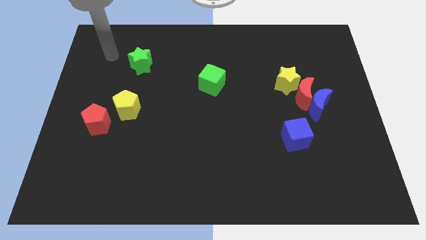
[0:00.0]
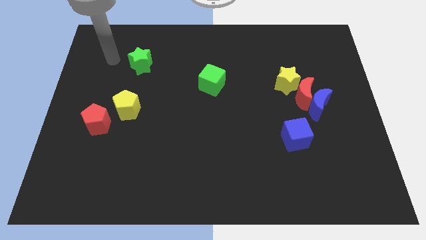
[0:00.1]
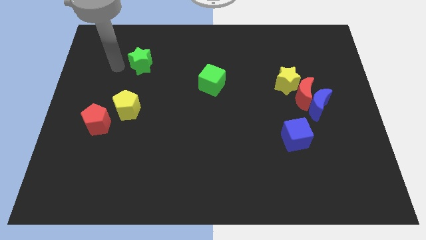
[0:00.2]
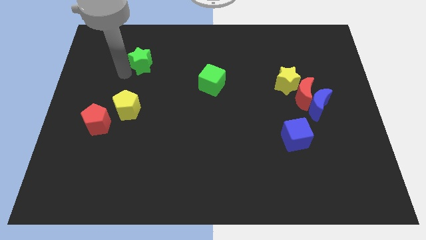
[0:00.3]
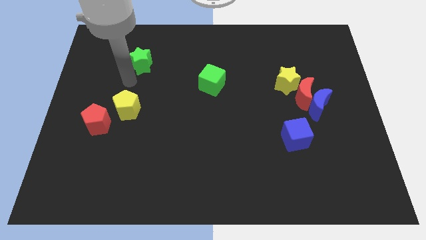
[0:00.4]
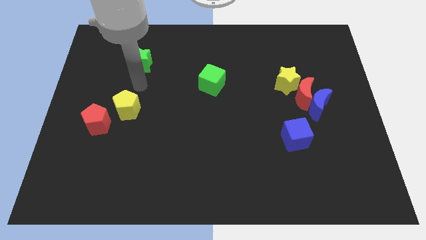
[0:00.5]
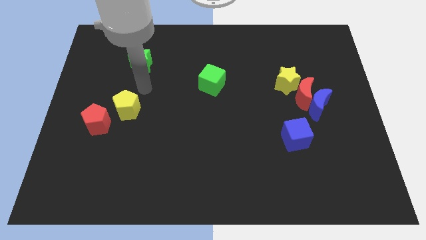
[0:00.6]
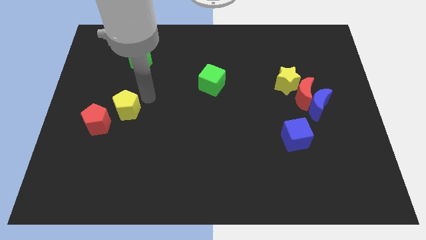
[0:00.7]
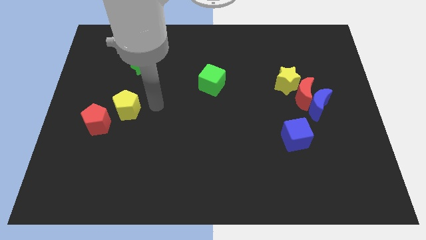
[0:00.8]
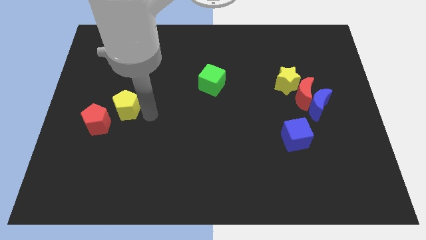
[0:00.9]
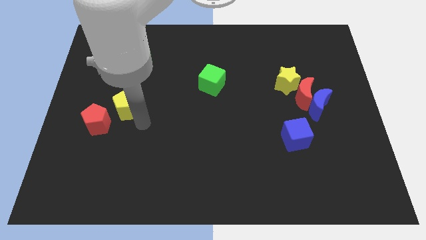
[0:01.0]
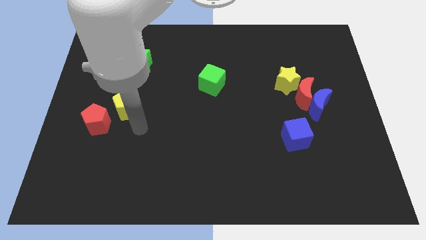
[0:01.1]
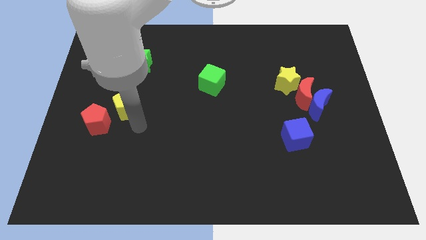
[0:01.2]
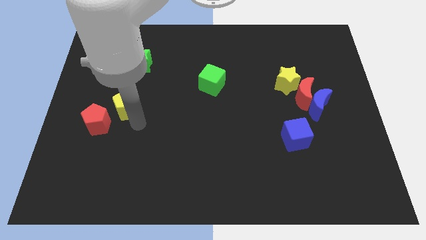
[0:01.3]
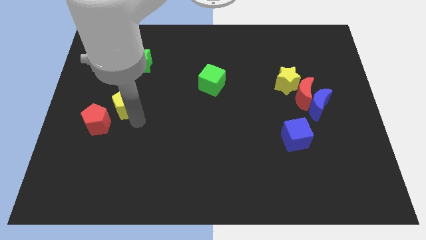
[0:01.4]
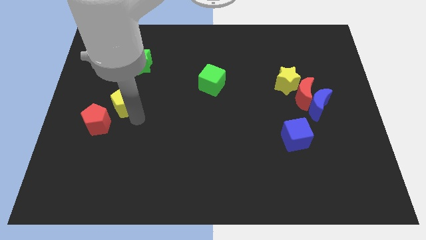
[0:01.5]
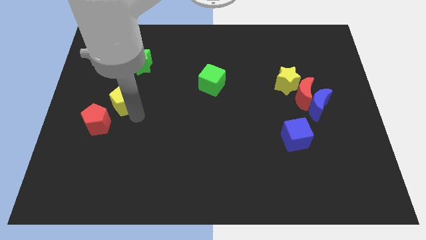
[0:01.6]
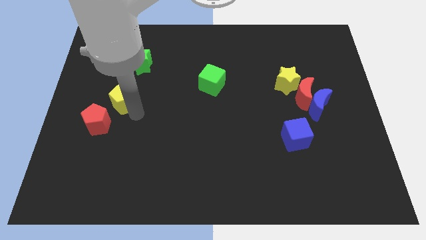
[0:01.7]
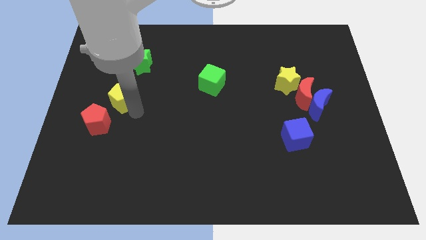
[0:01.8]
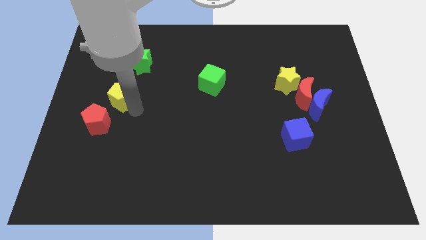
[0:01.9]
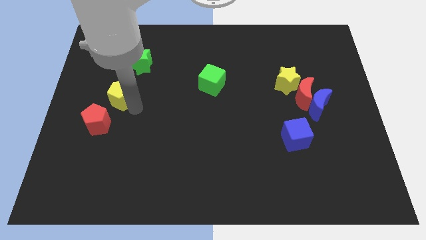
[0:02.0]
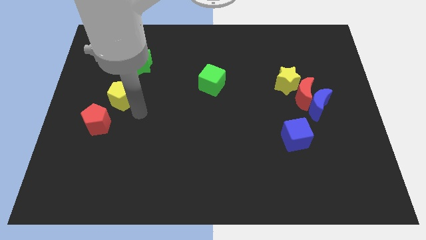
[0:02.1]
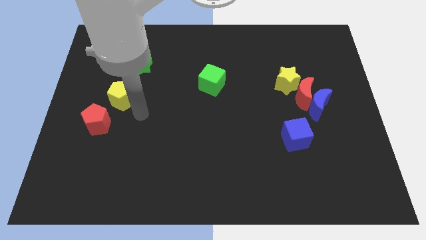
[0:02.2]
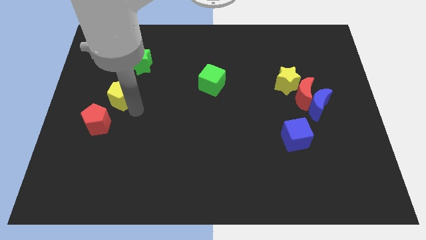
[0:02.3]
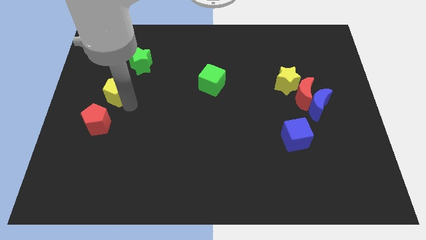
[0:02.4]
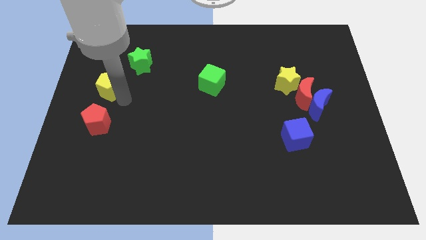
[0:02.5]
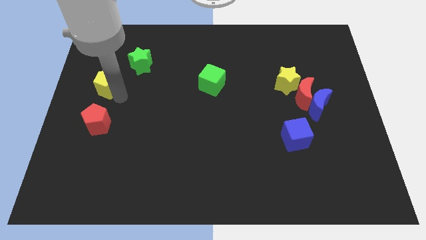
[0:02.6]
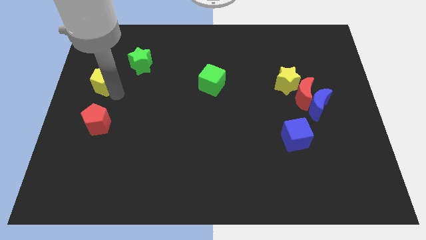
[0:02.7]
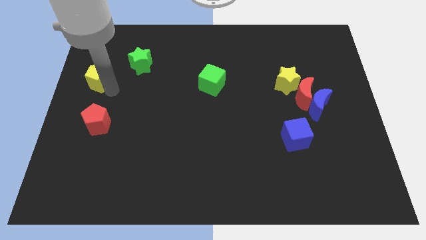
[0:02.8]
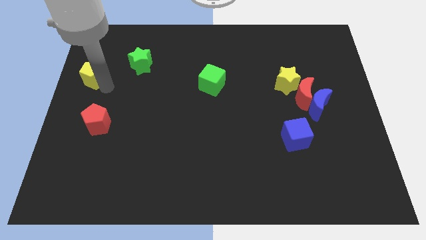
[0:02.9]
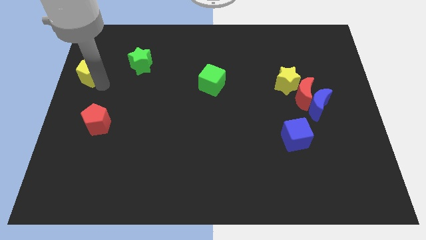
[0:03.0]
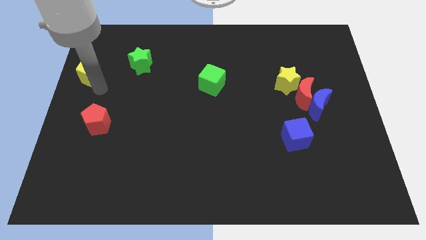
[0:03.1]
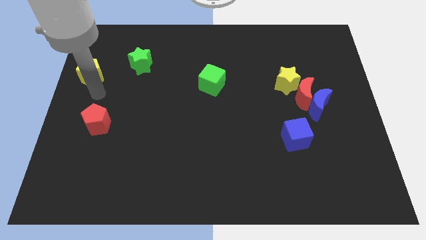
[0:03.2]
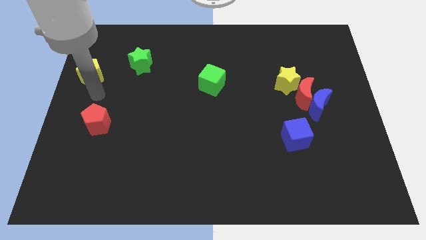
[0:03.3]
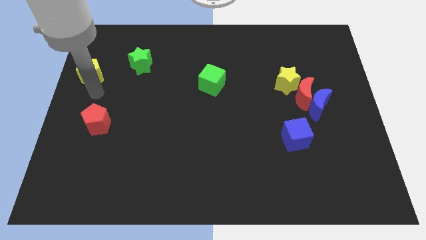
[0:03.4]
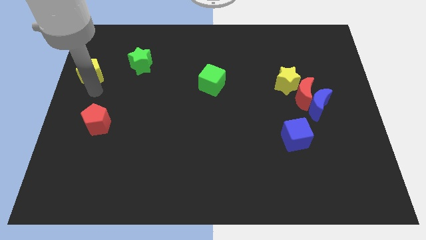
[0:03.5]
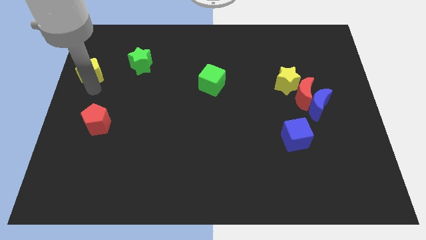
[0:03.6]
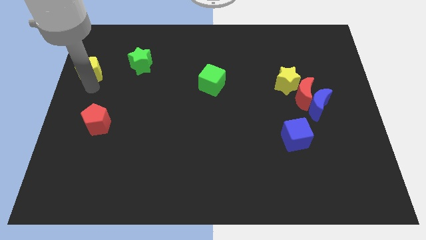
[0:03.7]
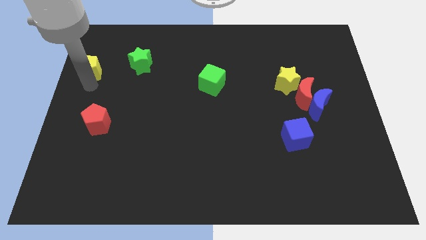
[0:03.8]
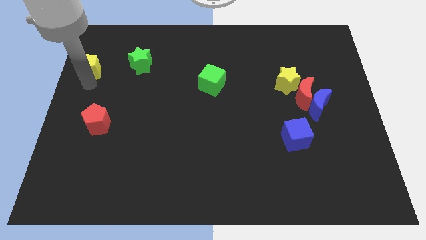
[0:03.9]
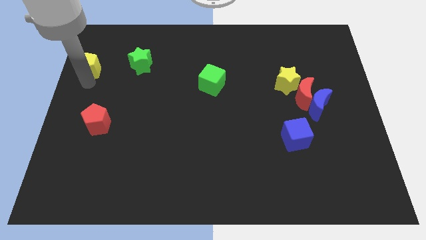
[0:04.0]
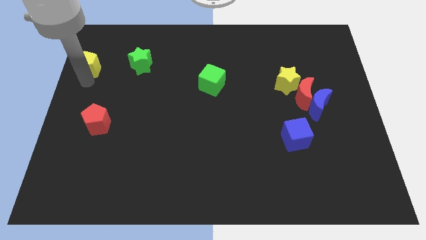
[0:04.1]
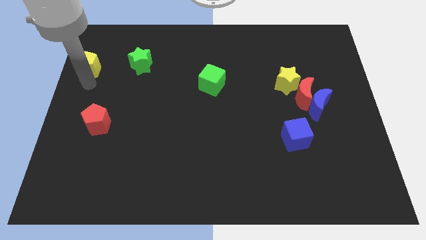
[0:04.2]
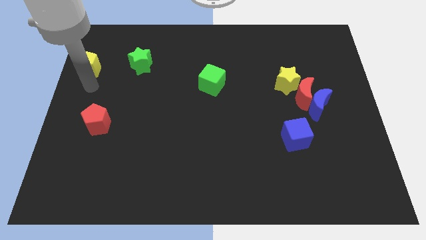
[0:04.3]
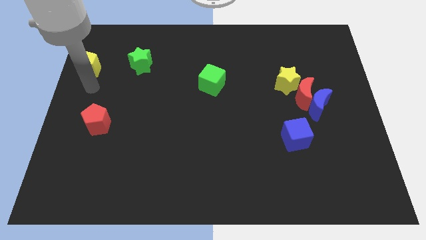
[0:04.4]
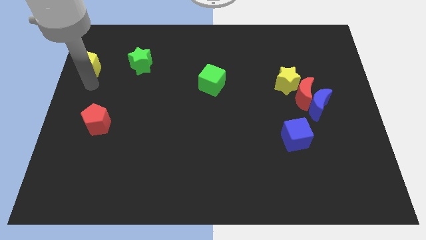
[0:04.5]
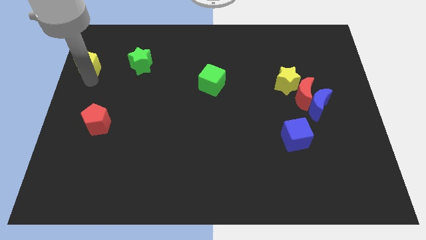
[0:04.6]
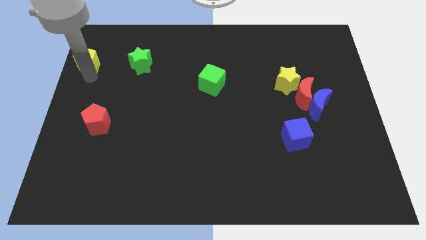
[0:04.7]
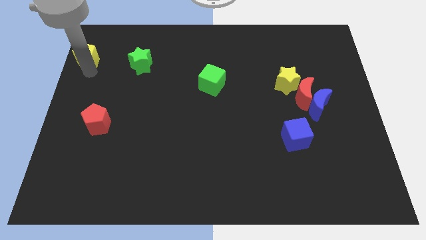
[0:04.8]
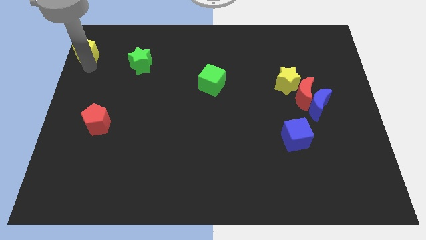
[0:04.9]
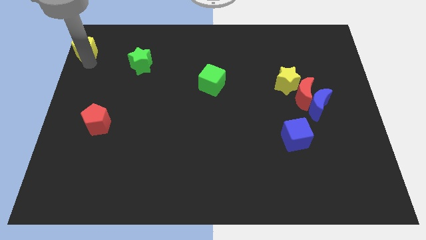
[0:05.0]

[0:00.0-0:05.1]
slide the yellow pentagon to the upper left corner

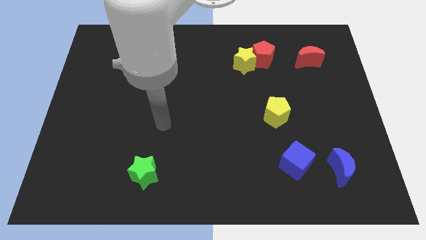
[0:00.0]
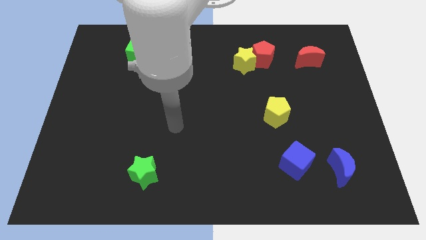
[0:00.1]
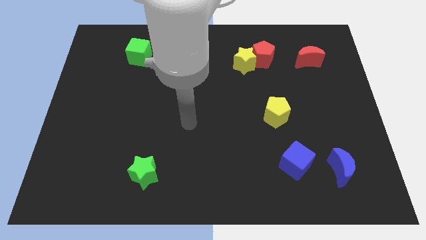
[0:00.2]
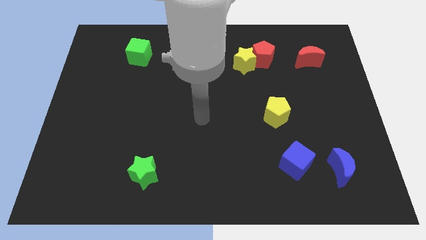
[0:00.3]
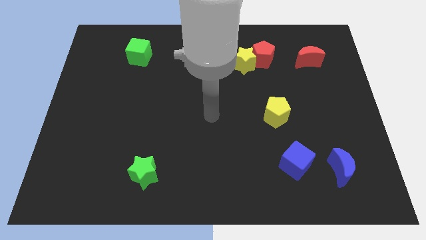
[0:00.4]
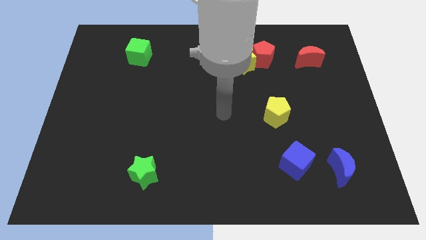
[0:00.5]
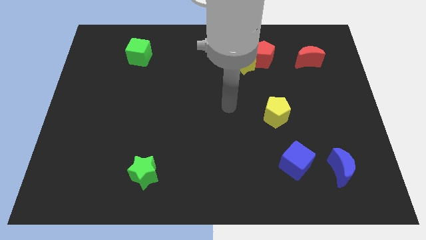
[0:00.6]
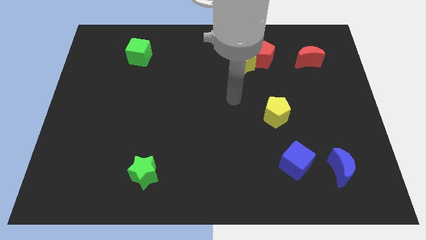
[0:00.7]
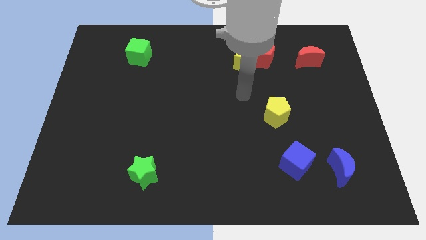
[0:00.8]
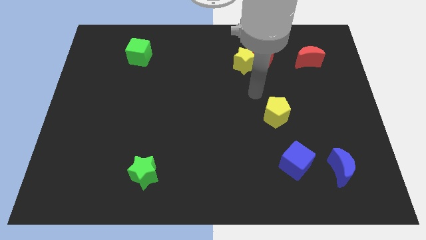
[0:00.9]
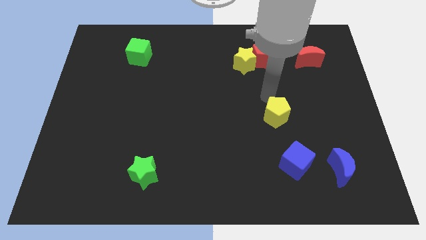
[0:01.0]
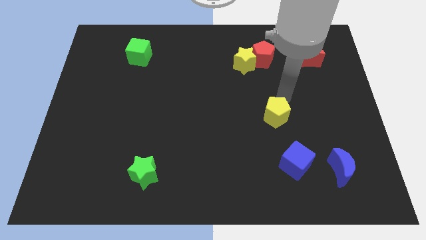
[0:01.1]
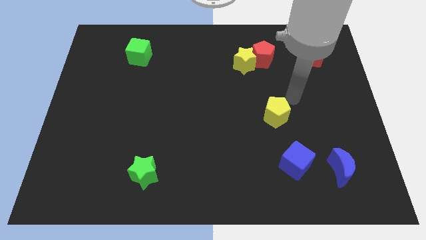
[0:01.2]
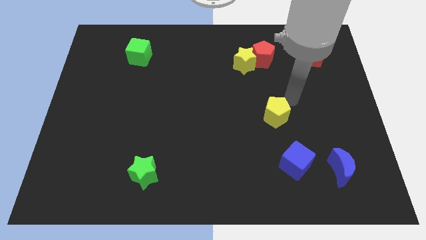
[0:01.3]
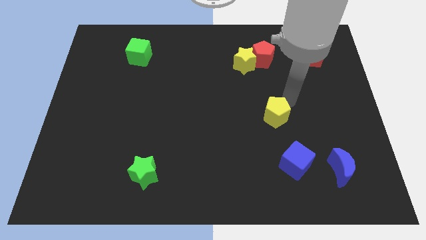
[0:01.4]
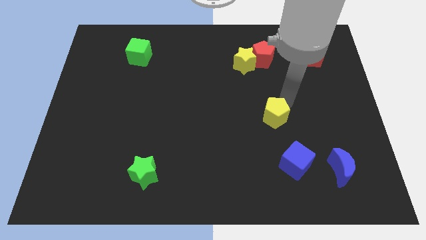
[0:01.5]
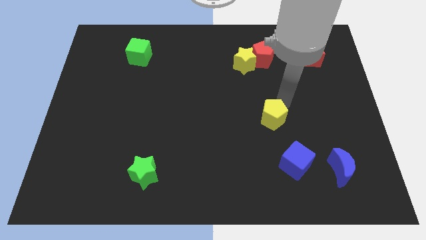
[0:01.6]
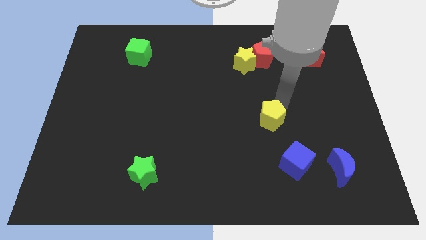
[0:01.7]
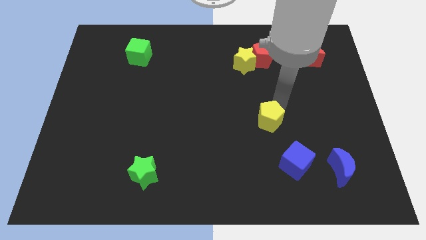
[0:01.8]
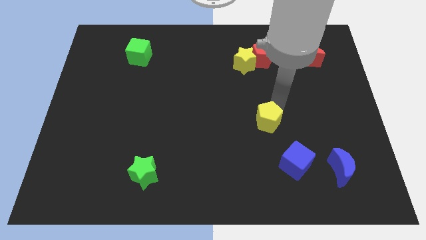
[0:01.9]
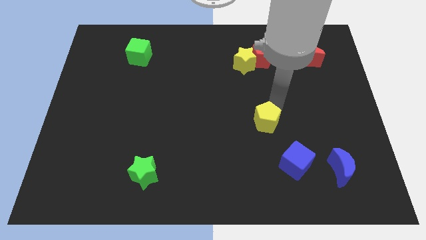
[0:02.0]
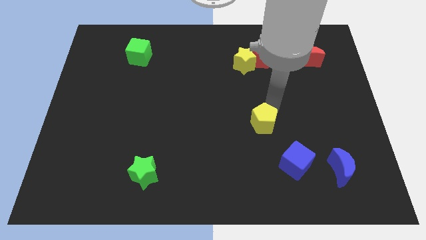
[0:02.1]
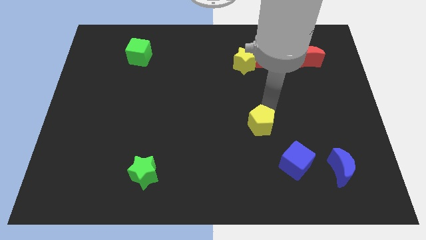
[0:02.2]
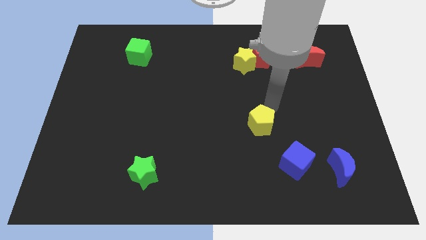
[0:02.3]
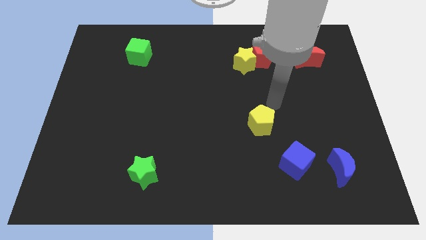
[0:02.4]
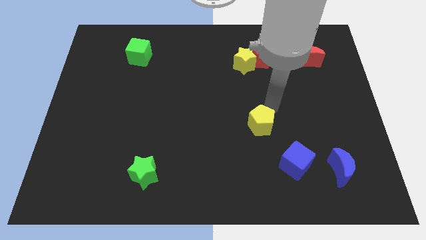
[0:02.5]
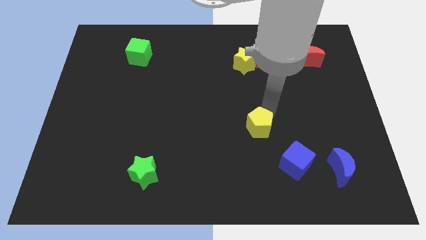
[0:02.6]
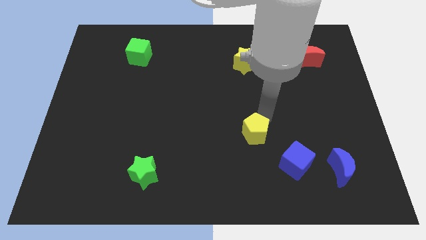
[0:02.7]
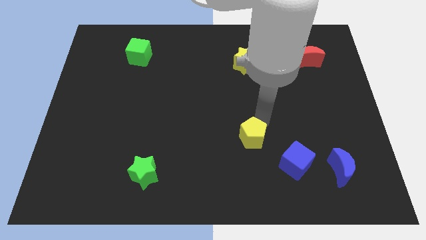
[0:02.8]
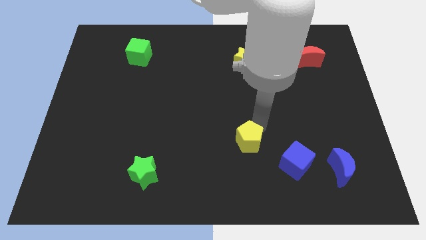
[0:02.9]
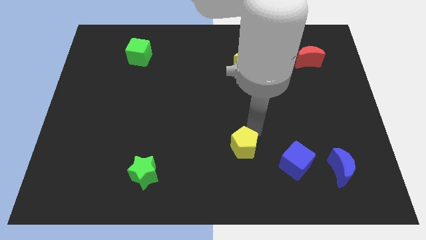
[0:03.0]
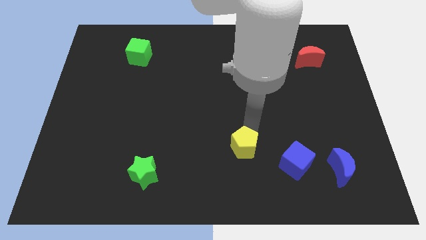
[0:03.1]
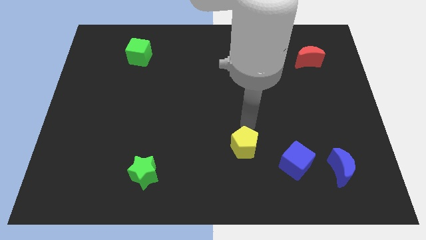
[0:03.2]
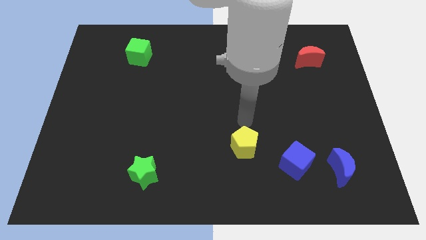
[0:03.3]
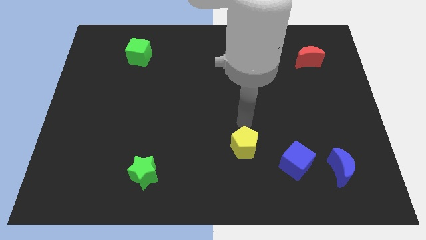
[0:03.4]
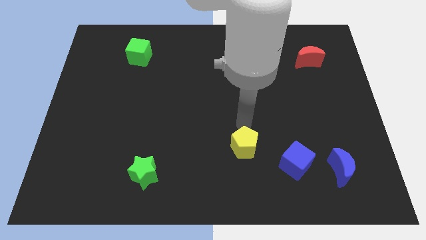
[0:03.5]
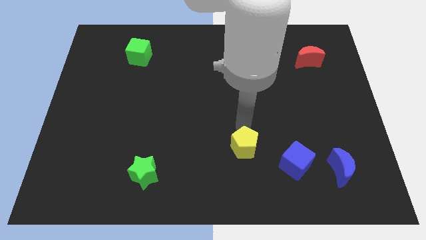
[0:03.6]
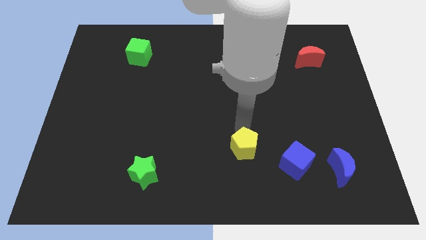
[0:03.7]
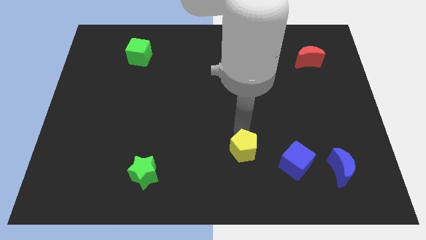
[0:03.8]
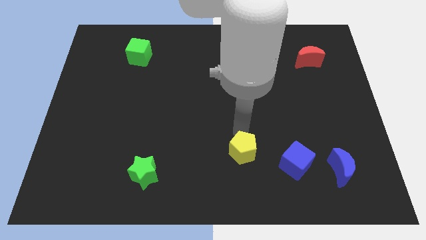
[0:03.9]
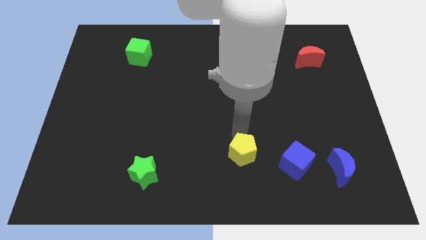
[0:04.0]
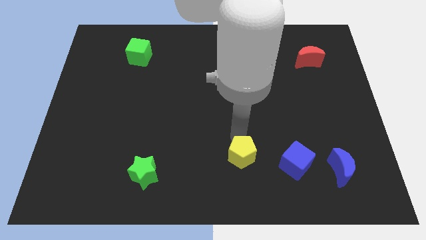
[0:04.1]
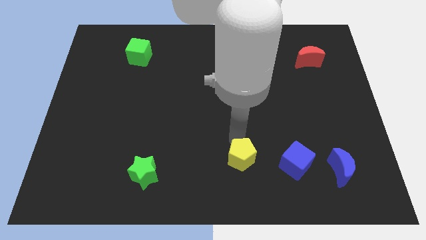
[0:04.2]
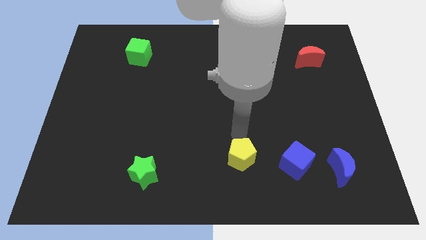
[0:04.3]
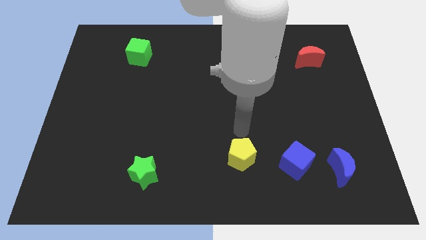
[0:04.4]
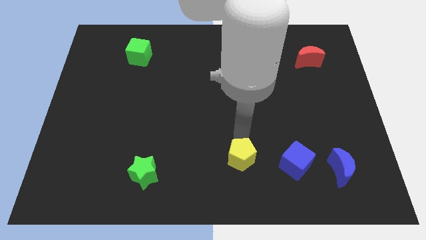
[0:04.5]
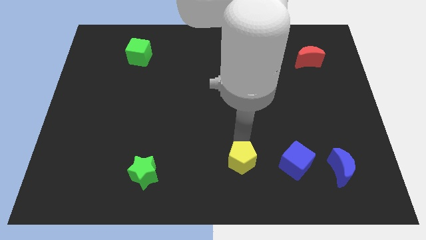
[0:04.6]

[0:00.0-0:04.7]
push the yellow pentagon to the bottom
